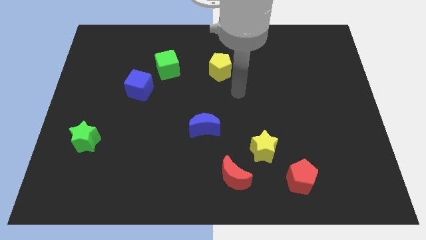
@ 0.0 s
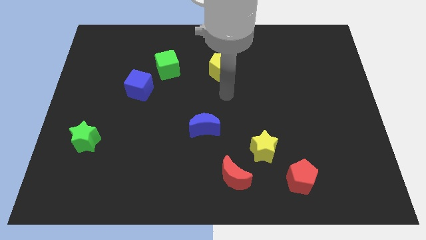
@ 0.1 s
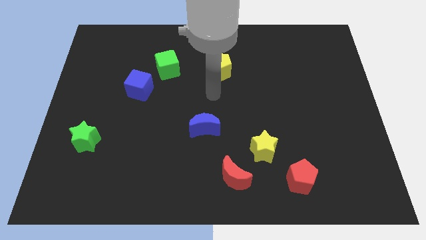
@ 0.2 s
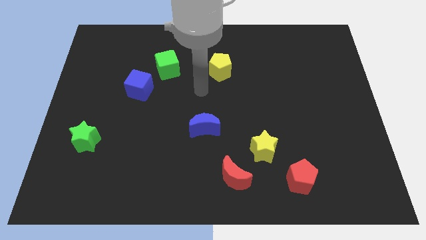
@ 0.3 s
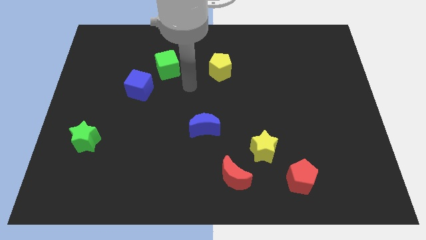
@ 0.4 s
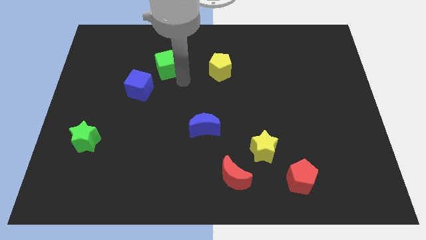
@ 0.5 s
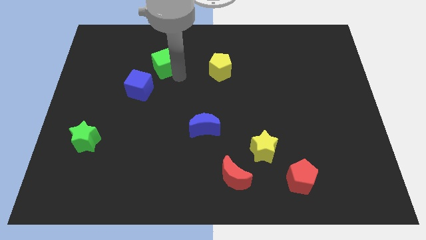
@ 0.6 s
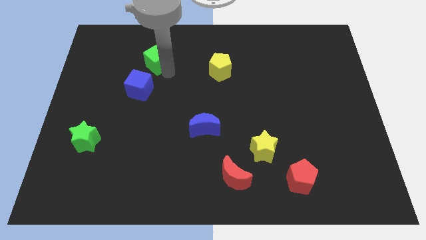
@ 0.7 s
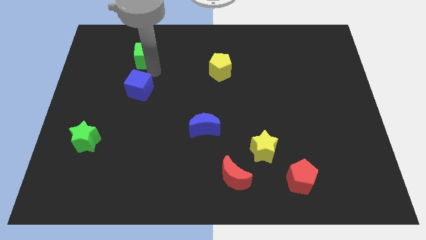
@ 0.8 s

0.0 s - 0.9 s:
pull the blue cube apart from the green cube

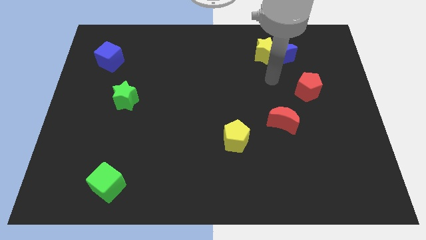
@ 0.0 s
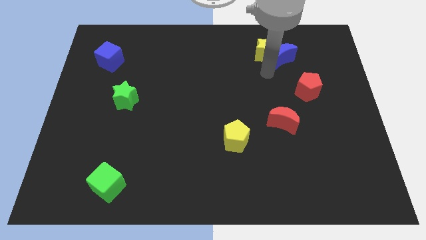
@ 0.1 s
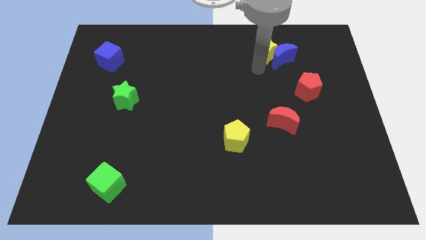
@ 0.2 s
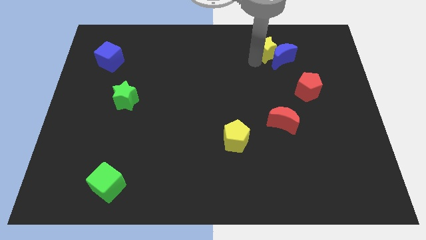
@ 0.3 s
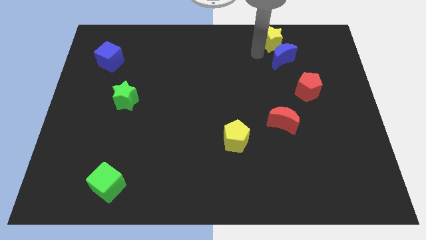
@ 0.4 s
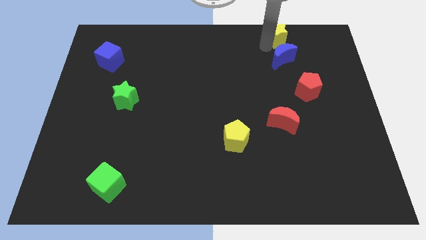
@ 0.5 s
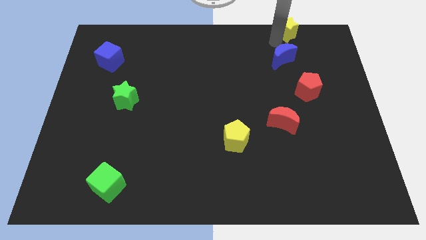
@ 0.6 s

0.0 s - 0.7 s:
move the blue moon away from the yellow star

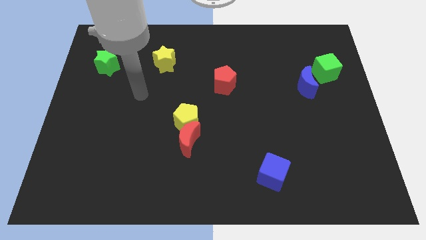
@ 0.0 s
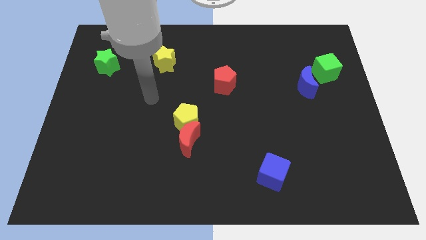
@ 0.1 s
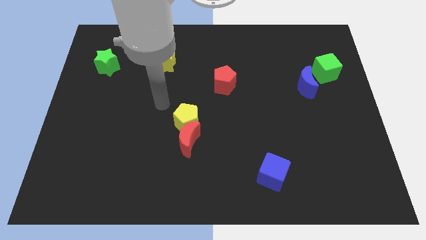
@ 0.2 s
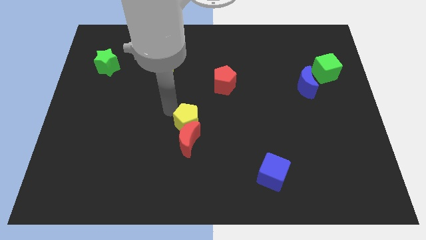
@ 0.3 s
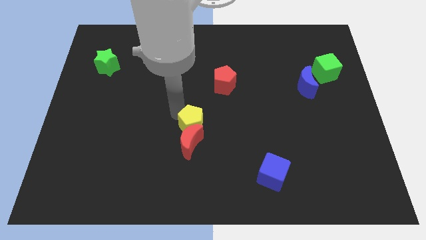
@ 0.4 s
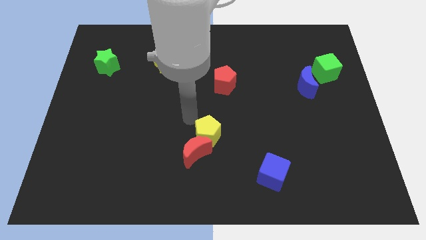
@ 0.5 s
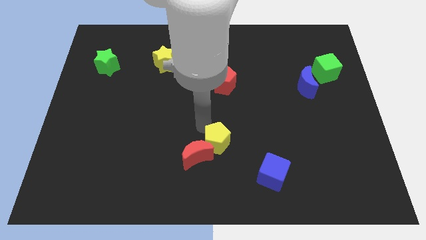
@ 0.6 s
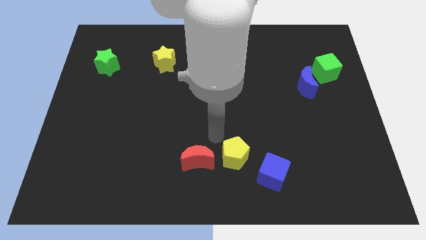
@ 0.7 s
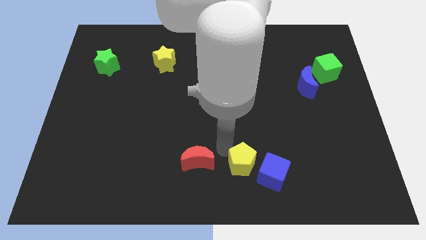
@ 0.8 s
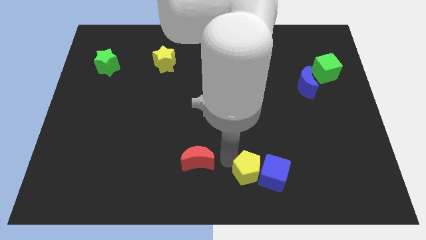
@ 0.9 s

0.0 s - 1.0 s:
move the red moon away from the yellow pentagon

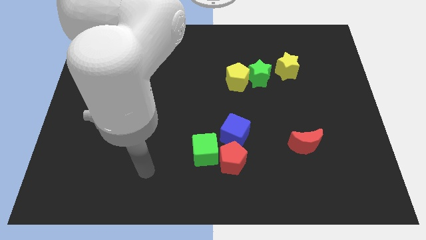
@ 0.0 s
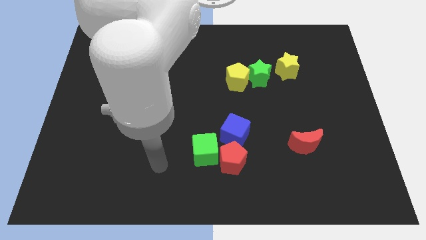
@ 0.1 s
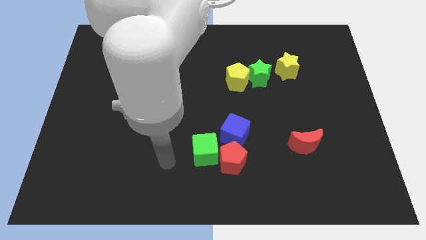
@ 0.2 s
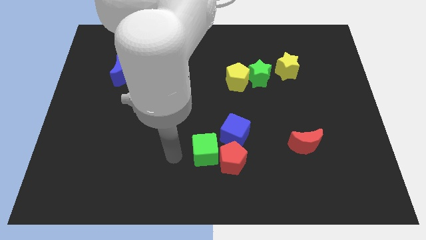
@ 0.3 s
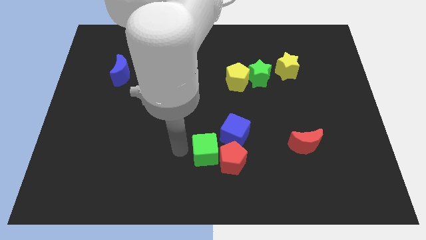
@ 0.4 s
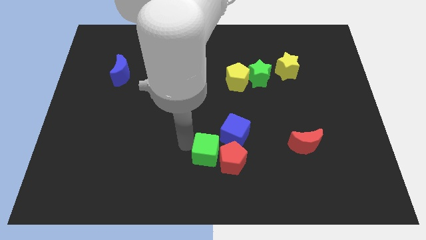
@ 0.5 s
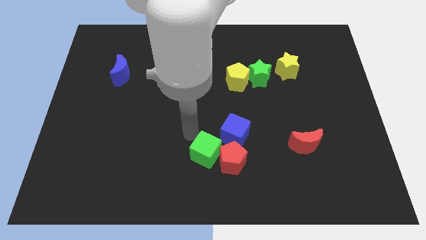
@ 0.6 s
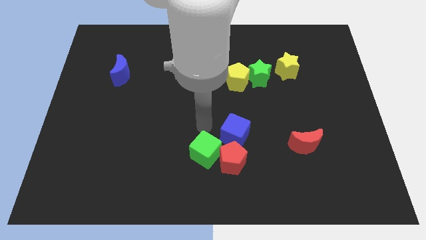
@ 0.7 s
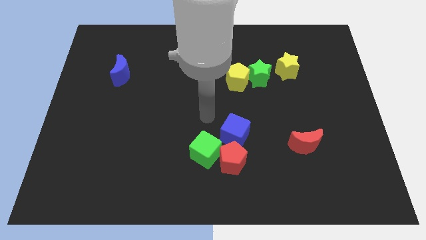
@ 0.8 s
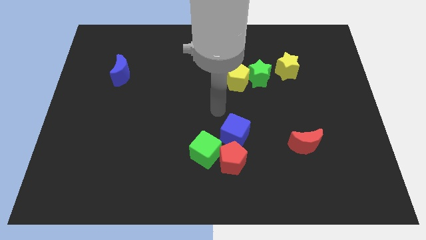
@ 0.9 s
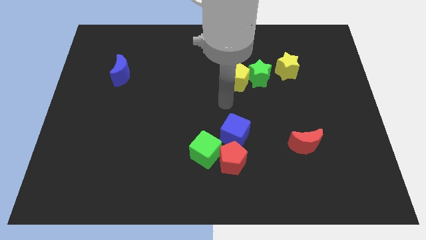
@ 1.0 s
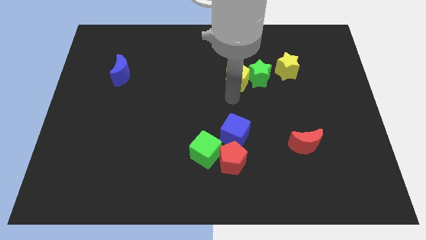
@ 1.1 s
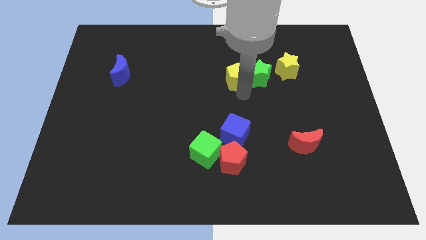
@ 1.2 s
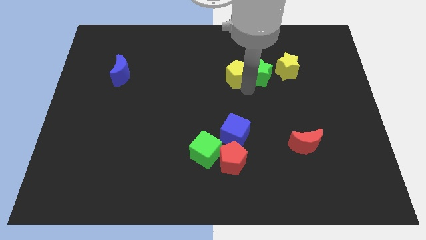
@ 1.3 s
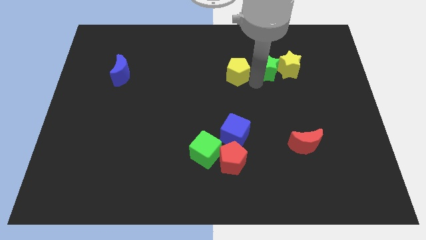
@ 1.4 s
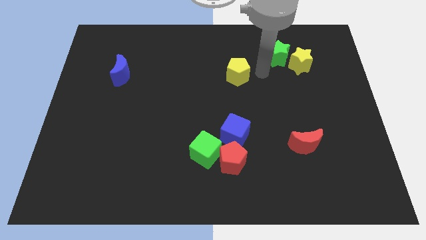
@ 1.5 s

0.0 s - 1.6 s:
pull the yellow pentagon apart from the green star

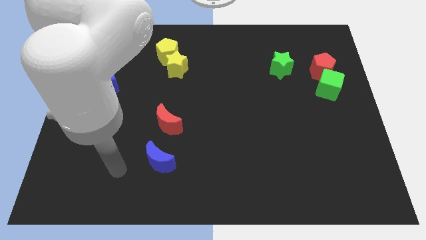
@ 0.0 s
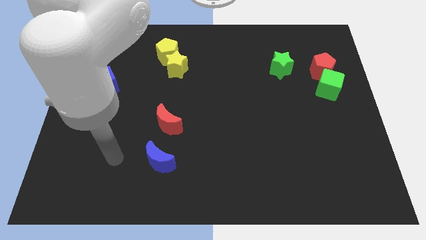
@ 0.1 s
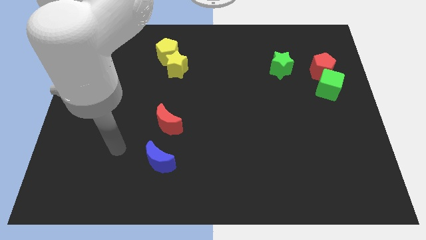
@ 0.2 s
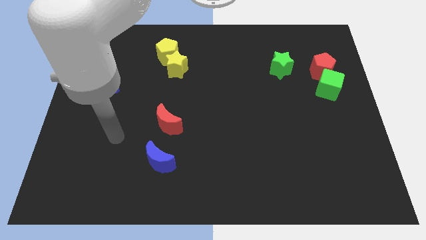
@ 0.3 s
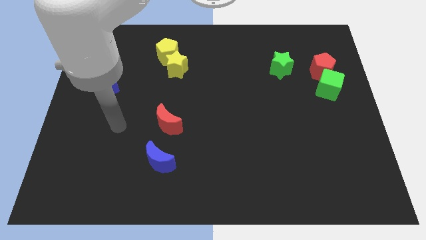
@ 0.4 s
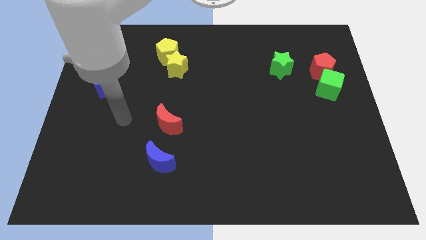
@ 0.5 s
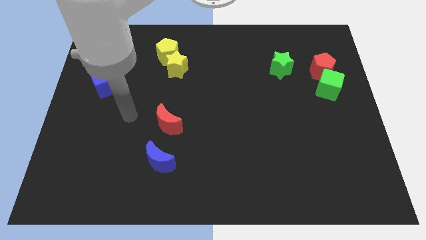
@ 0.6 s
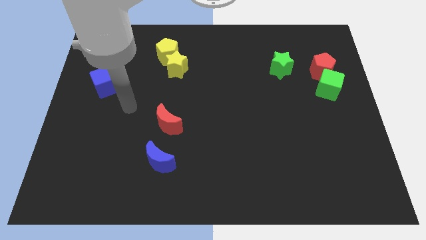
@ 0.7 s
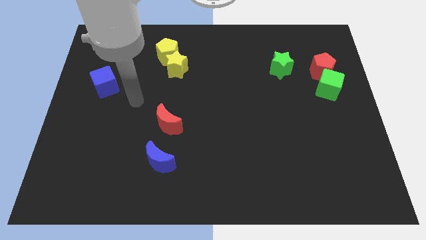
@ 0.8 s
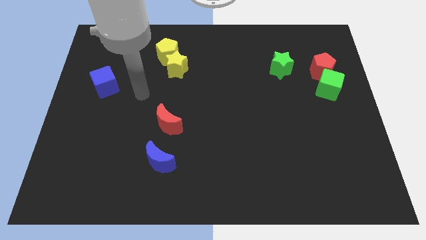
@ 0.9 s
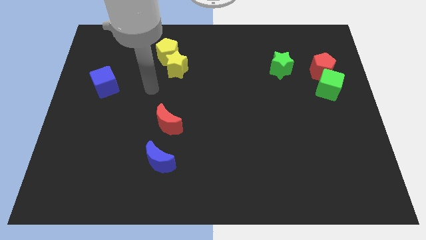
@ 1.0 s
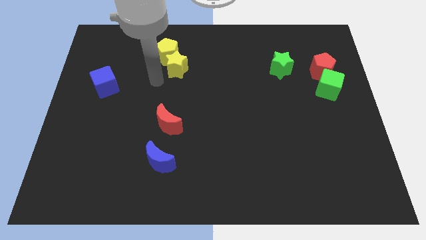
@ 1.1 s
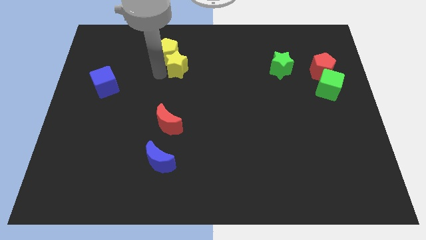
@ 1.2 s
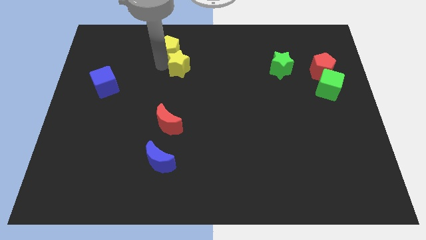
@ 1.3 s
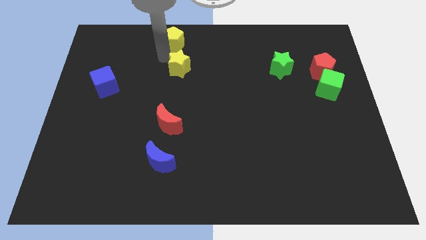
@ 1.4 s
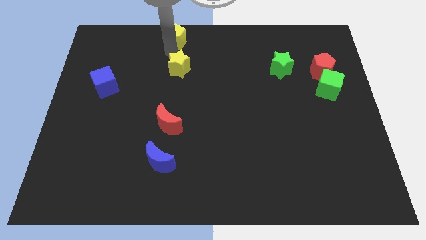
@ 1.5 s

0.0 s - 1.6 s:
move the yellow star away from the yellow pentagon

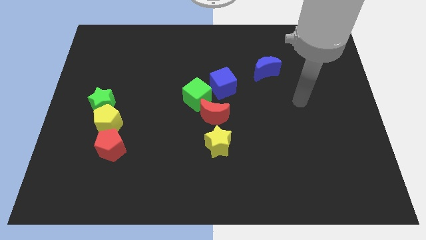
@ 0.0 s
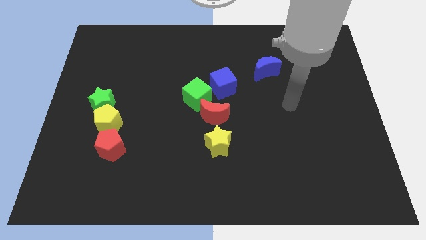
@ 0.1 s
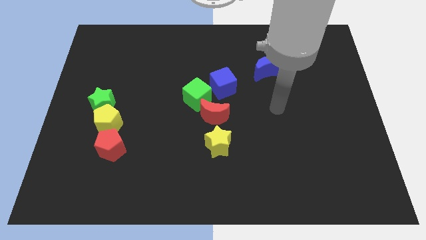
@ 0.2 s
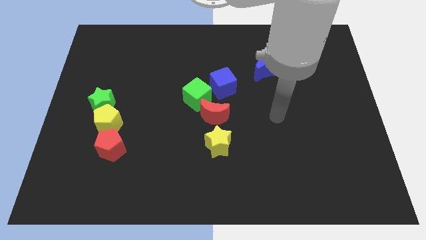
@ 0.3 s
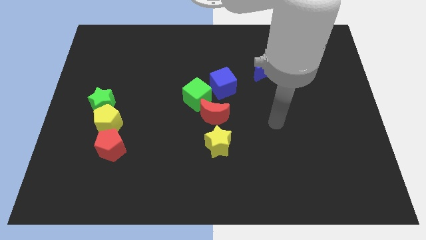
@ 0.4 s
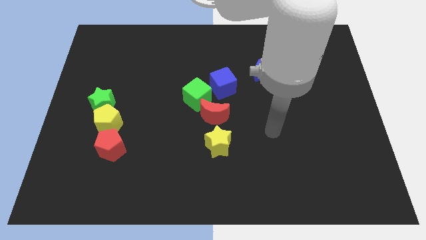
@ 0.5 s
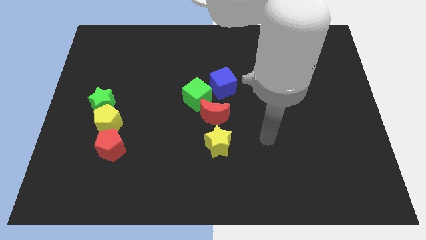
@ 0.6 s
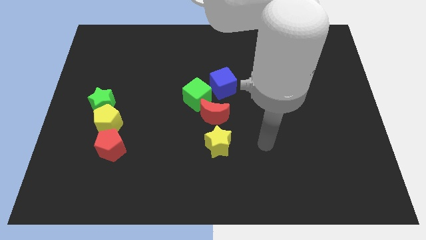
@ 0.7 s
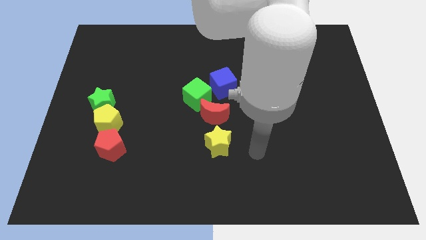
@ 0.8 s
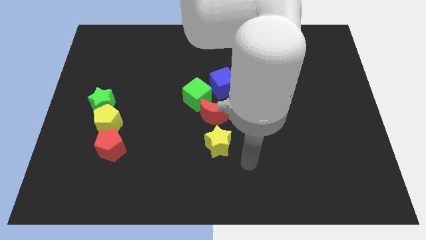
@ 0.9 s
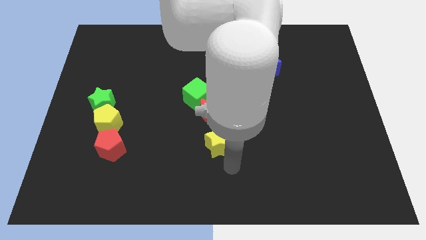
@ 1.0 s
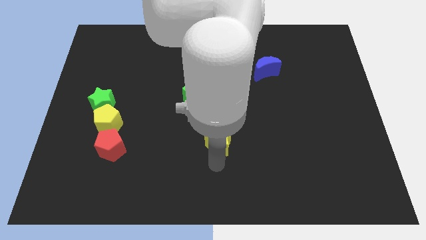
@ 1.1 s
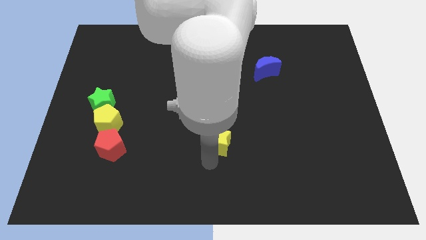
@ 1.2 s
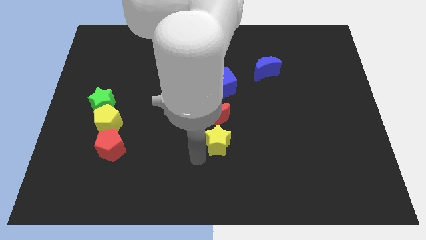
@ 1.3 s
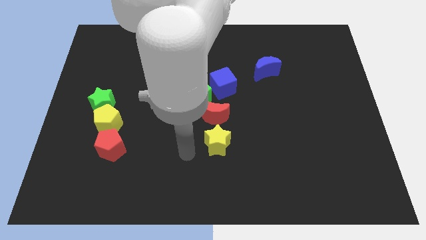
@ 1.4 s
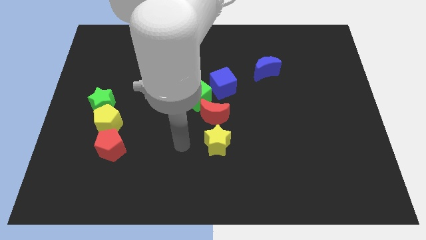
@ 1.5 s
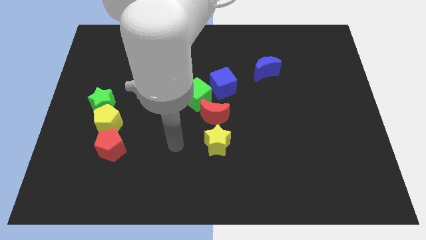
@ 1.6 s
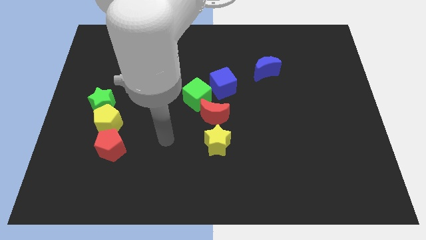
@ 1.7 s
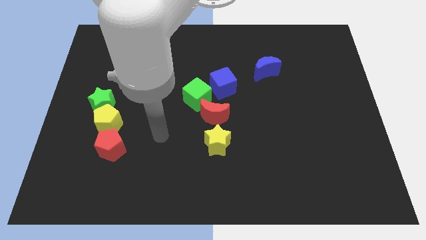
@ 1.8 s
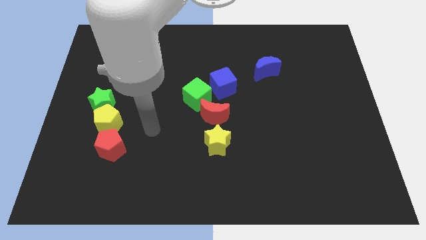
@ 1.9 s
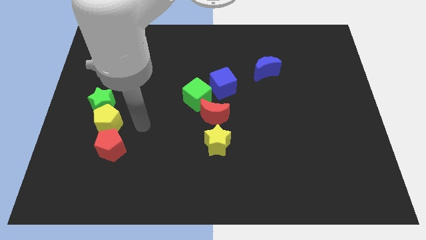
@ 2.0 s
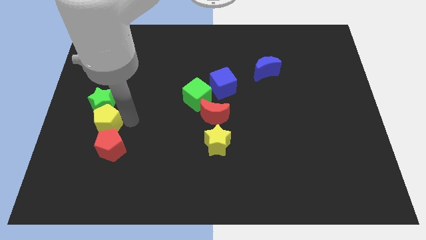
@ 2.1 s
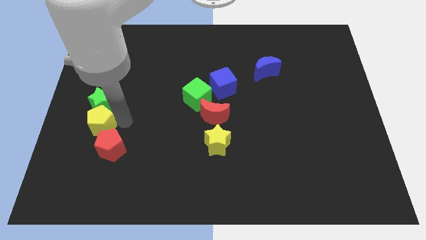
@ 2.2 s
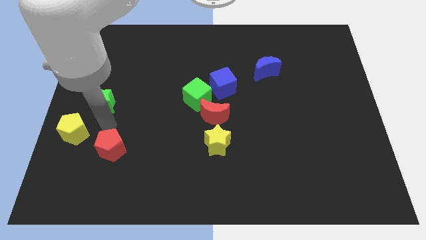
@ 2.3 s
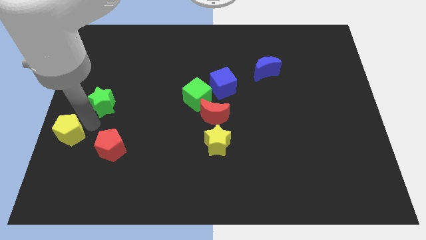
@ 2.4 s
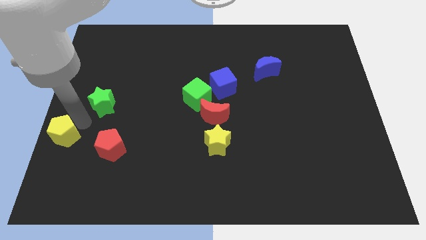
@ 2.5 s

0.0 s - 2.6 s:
separate the green star from the yellow pentagon

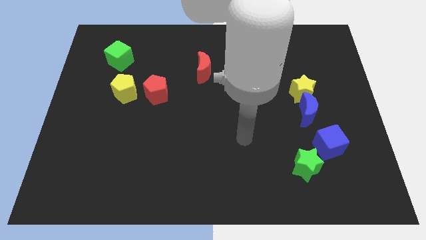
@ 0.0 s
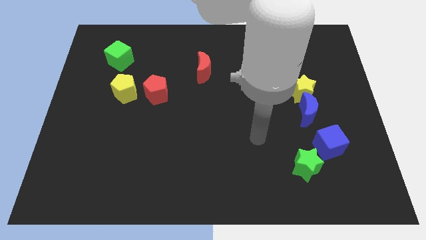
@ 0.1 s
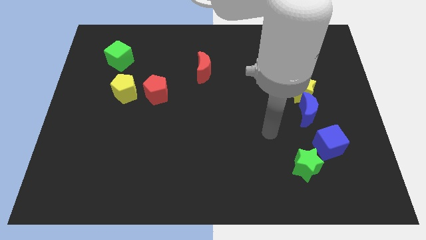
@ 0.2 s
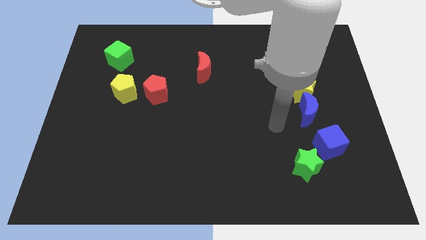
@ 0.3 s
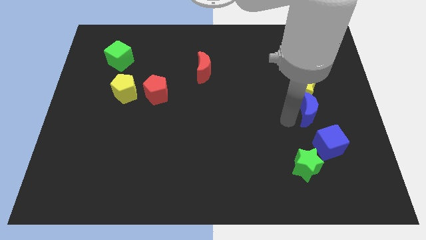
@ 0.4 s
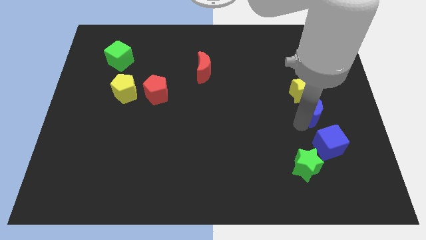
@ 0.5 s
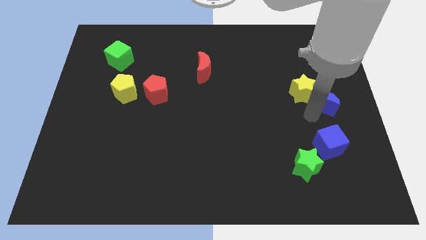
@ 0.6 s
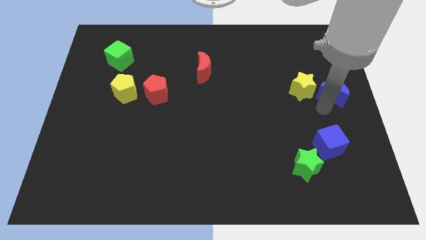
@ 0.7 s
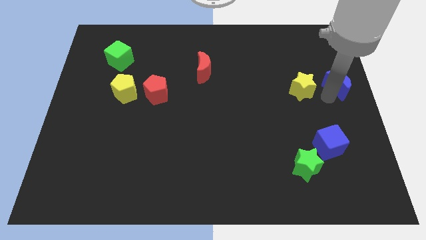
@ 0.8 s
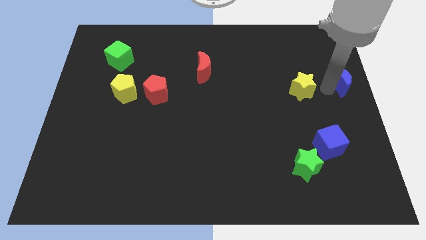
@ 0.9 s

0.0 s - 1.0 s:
pull the yellow star apart from the blue moon
